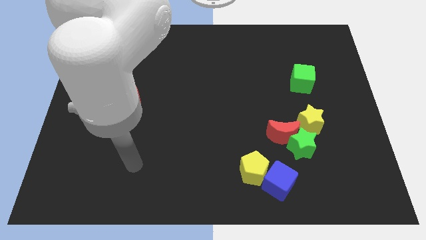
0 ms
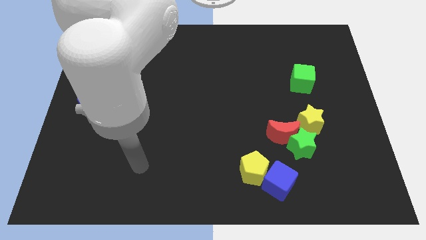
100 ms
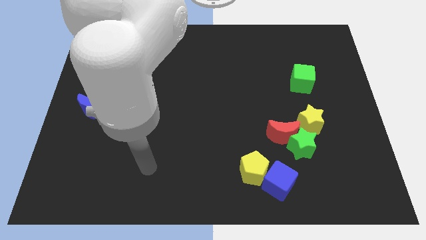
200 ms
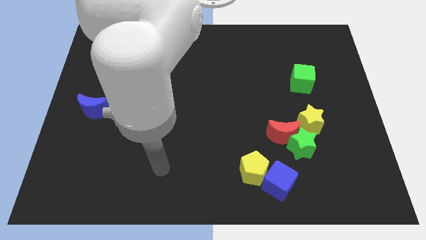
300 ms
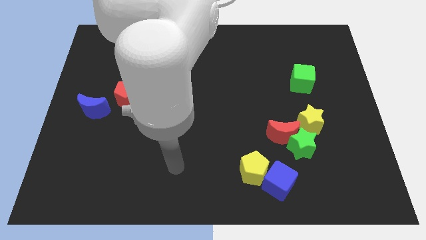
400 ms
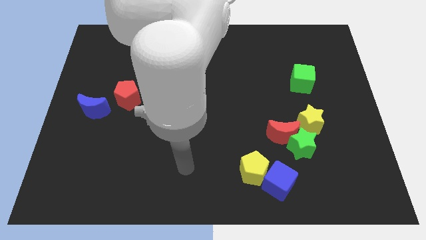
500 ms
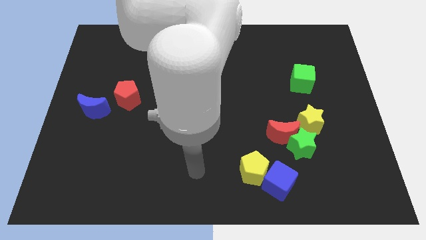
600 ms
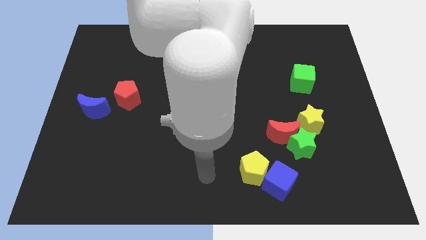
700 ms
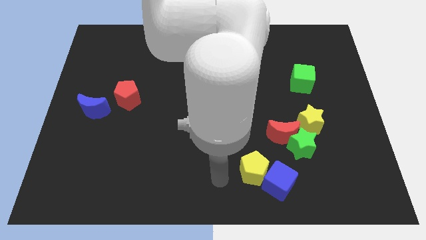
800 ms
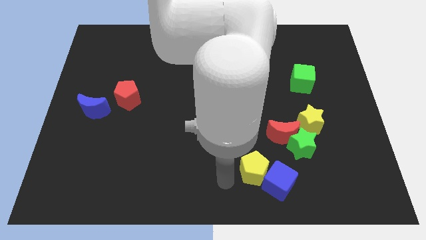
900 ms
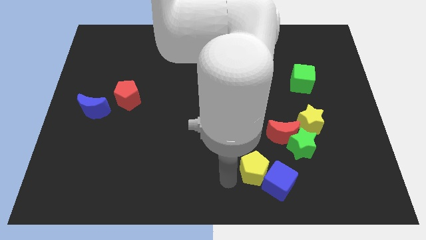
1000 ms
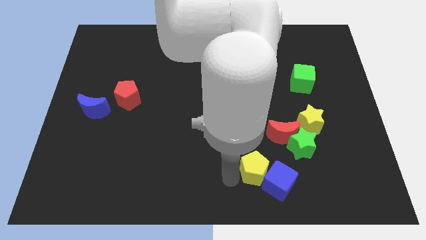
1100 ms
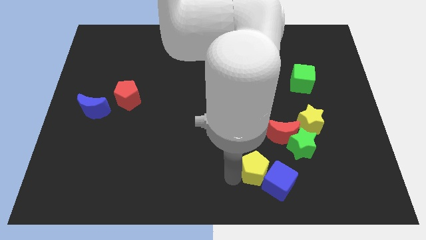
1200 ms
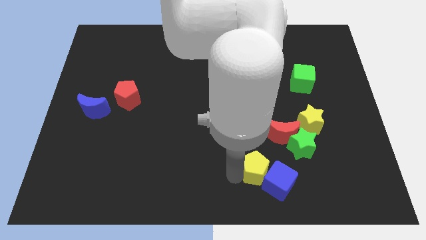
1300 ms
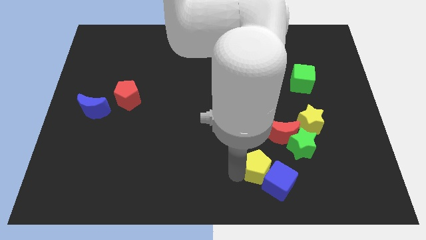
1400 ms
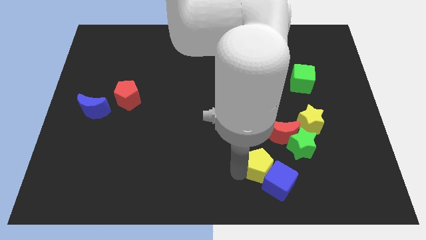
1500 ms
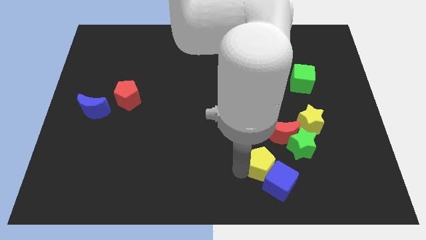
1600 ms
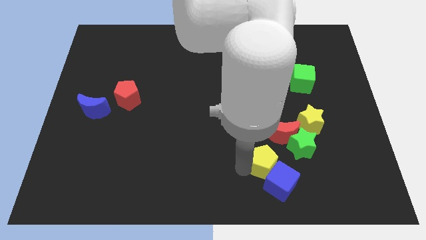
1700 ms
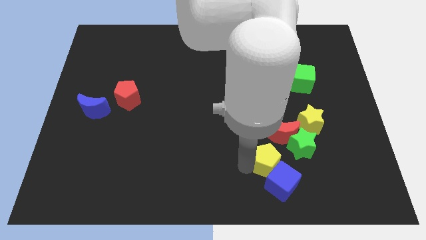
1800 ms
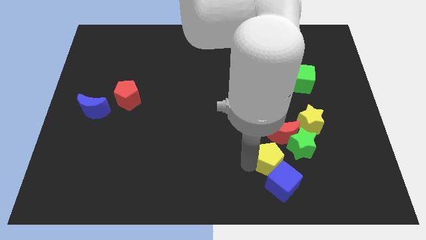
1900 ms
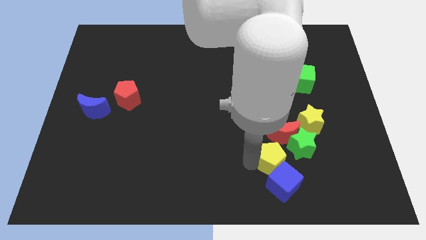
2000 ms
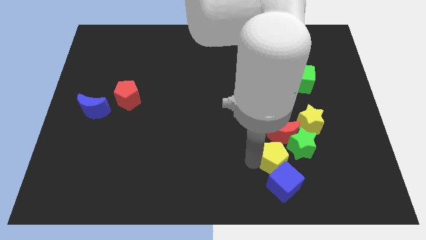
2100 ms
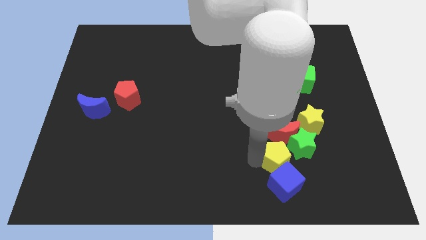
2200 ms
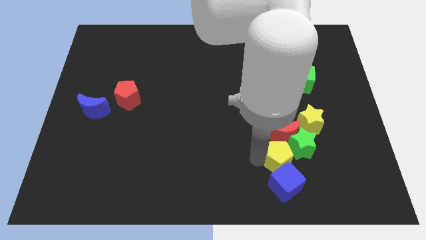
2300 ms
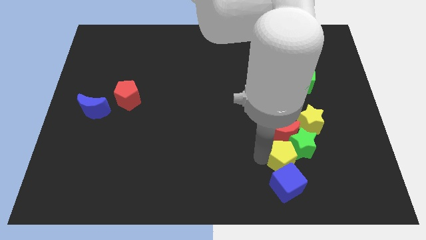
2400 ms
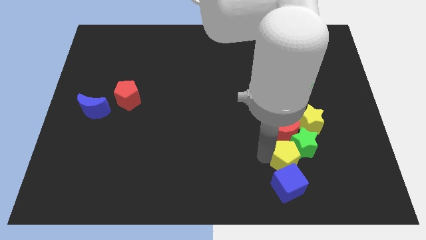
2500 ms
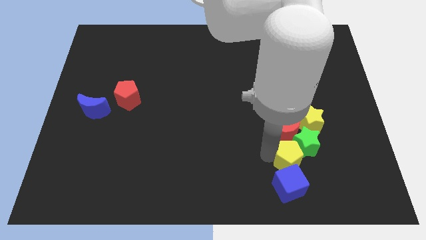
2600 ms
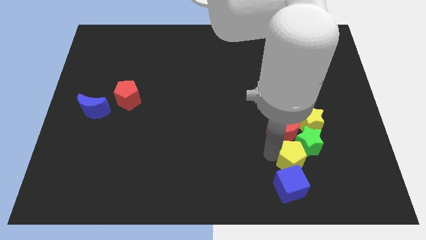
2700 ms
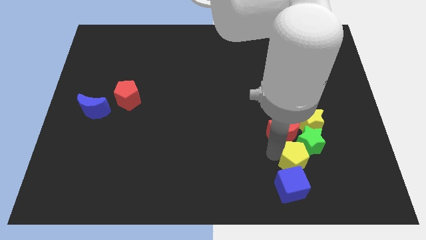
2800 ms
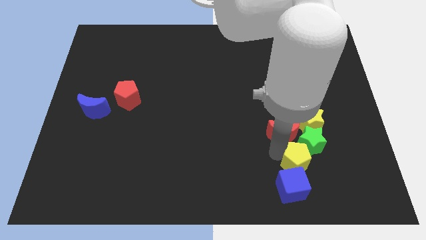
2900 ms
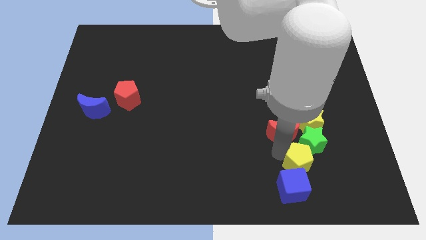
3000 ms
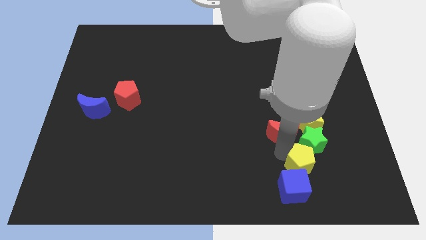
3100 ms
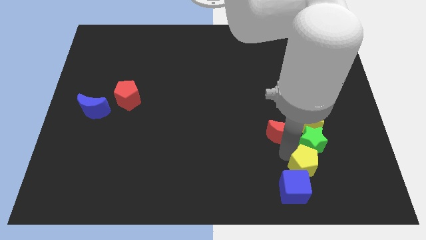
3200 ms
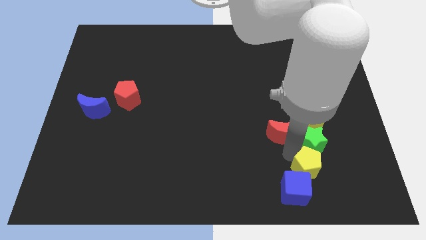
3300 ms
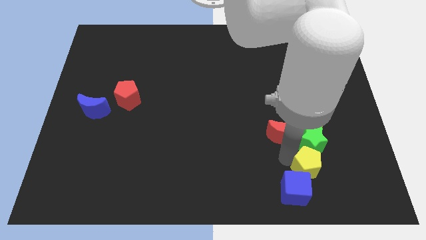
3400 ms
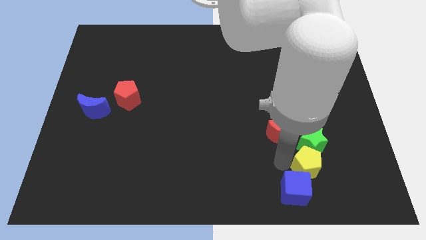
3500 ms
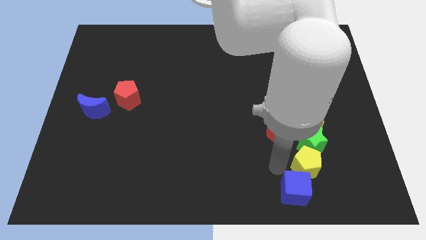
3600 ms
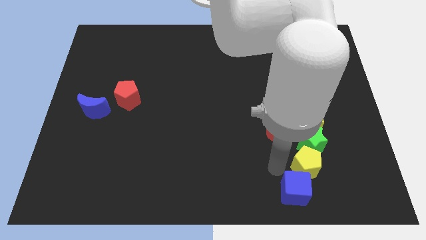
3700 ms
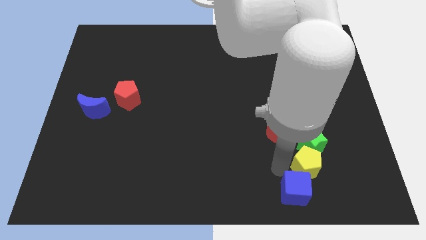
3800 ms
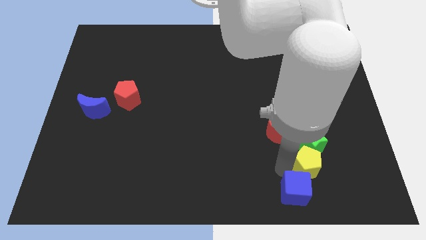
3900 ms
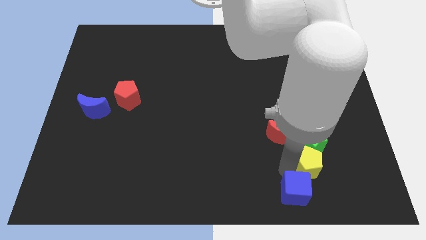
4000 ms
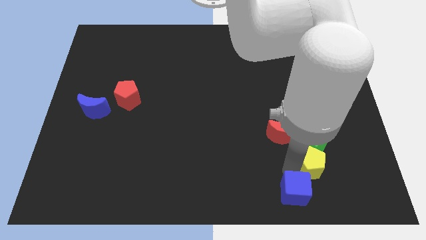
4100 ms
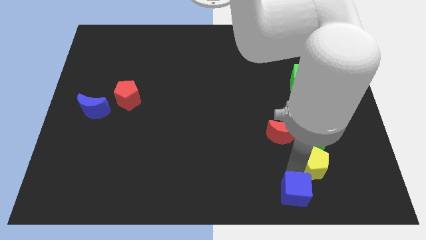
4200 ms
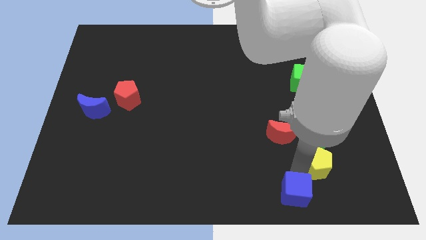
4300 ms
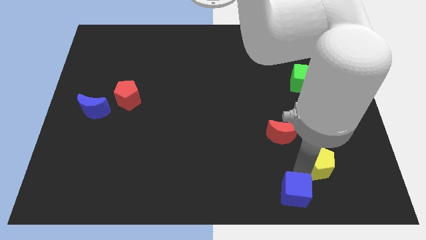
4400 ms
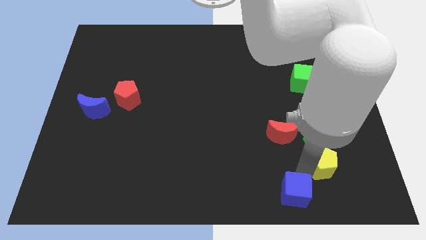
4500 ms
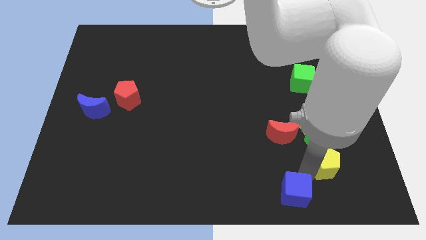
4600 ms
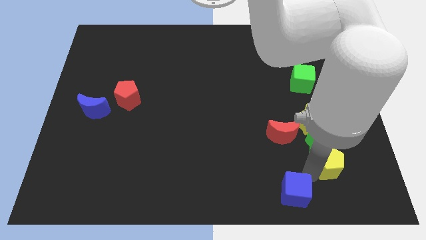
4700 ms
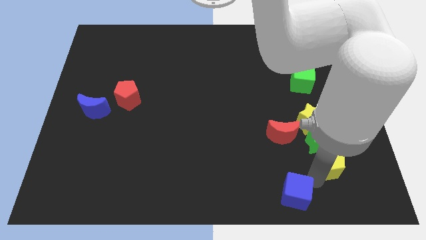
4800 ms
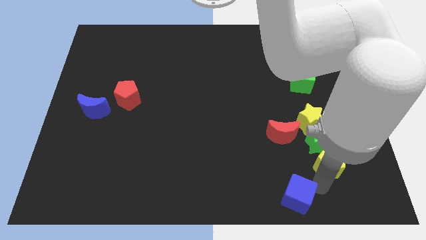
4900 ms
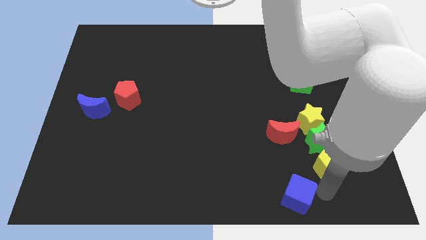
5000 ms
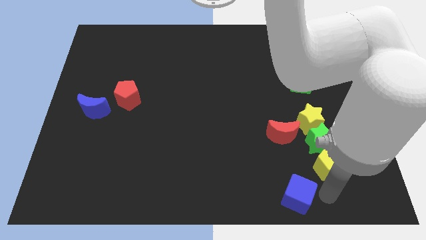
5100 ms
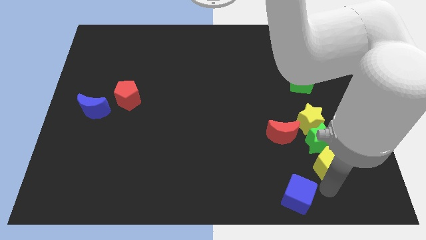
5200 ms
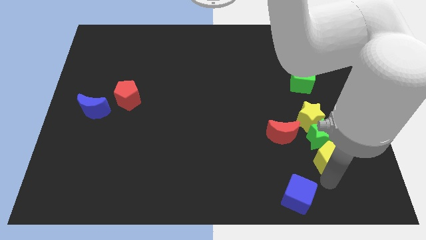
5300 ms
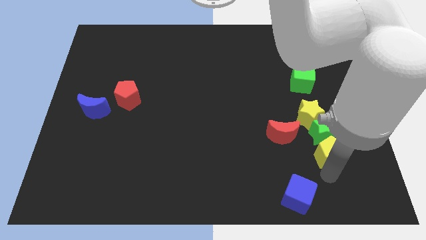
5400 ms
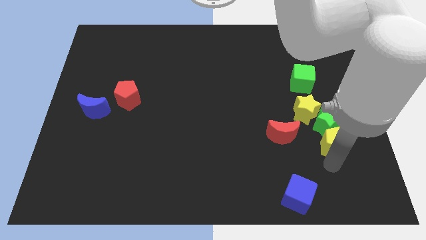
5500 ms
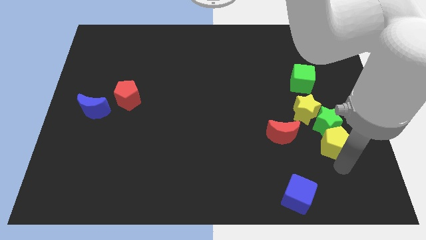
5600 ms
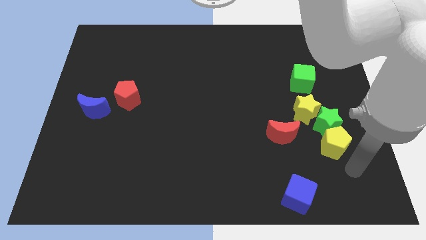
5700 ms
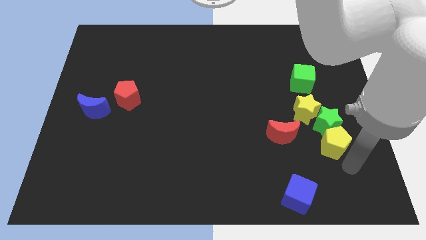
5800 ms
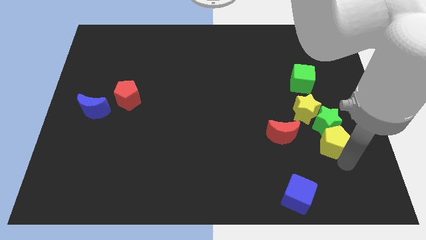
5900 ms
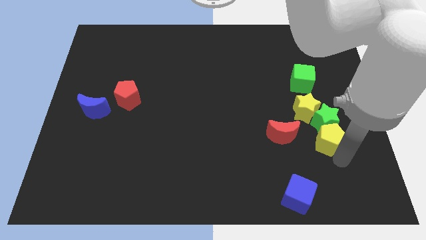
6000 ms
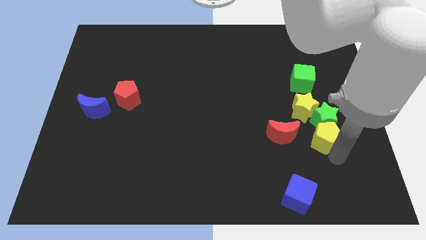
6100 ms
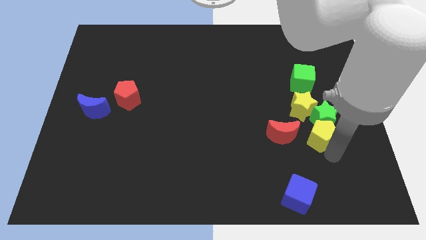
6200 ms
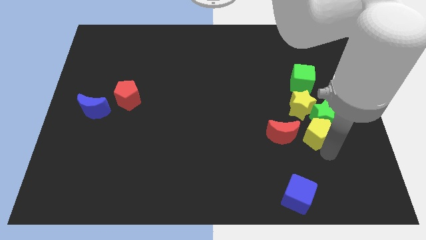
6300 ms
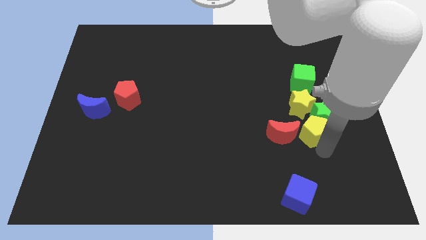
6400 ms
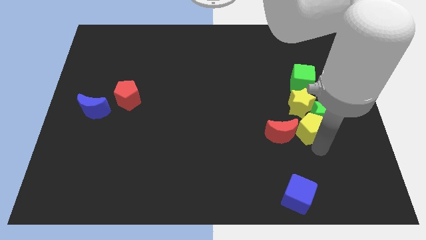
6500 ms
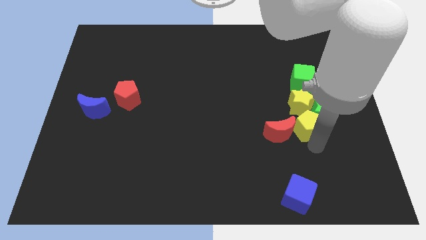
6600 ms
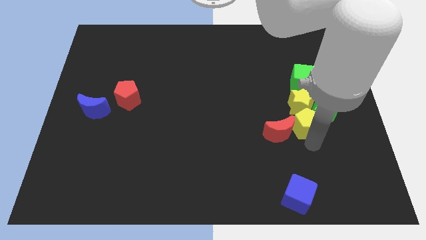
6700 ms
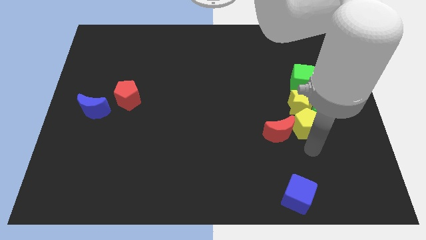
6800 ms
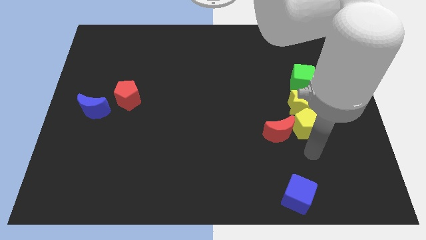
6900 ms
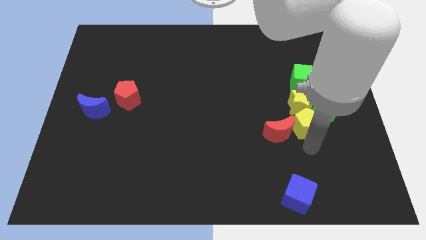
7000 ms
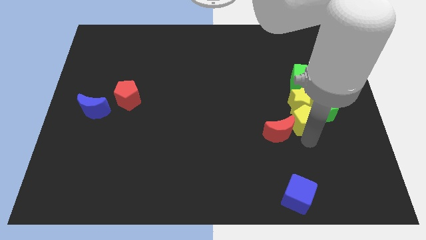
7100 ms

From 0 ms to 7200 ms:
move the yellow pentagon close to the yellow star
